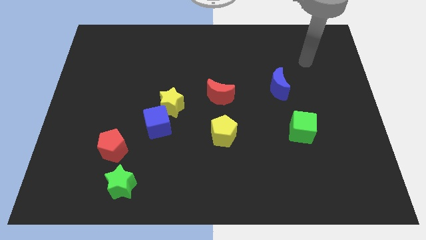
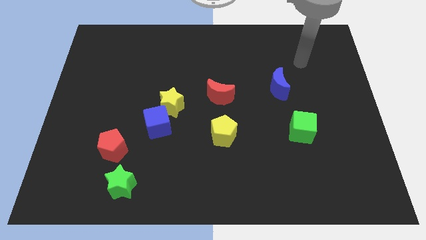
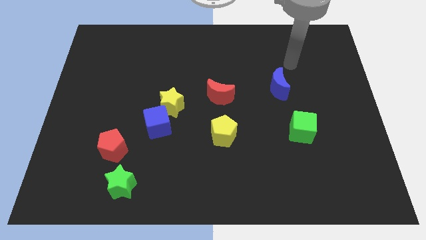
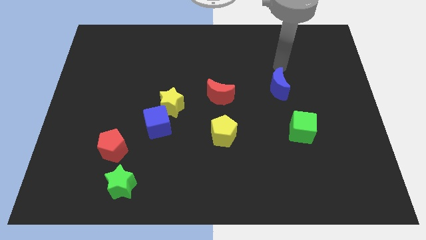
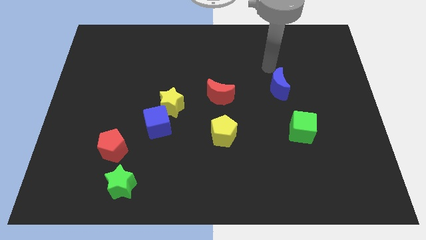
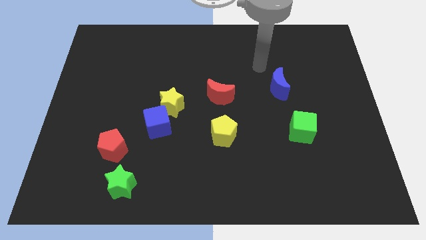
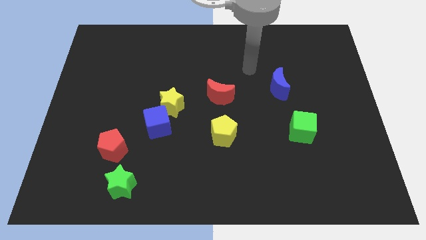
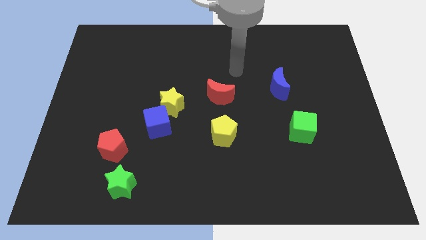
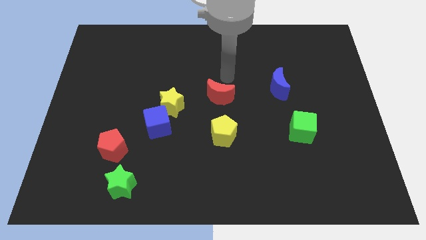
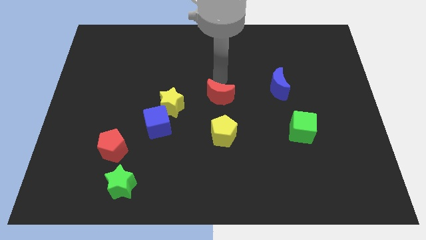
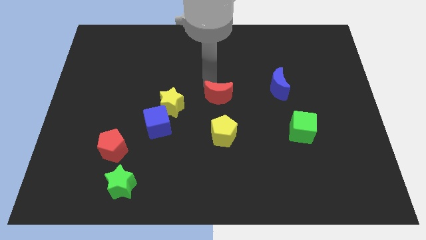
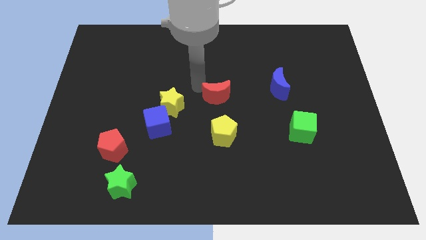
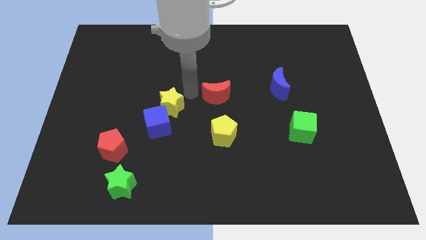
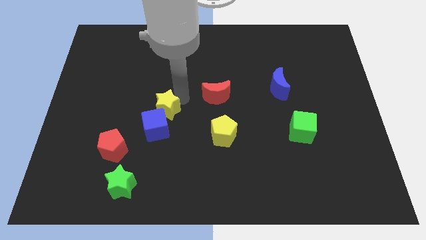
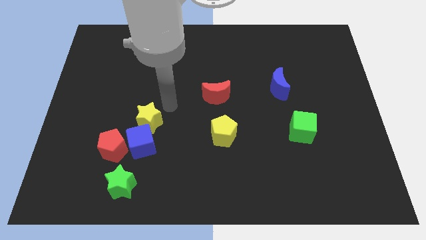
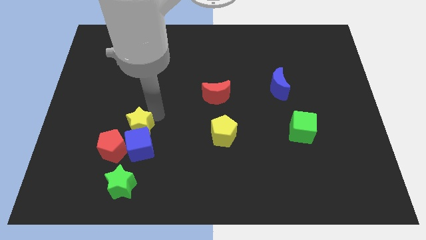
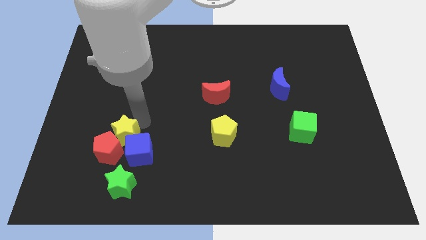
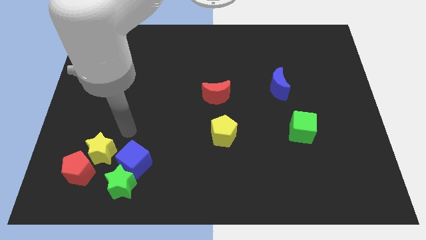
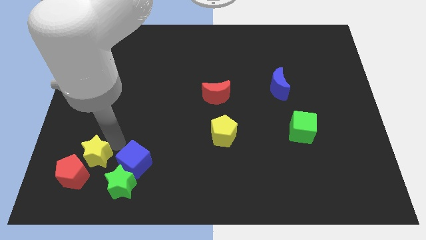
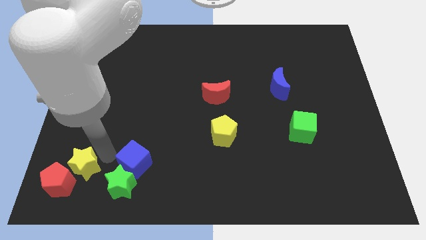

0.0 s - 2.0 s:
move the blue cube away from the yellow star

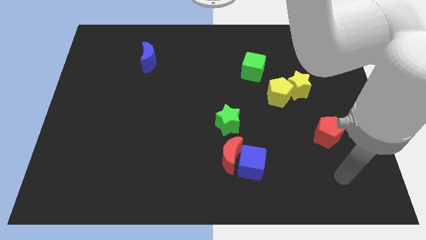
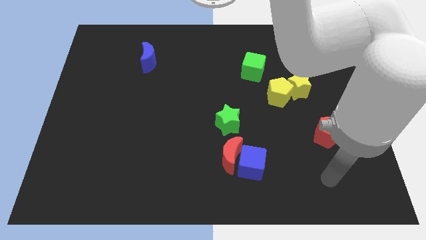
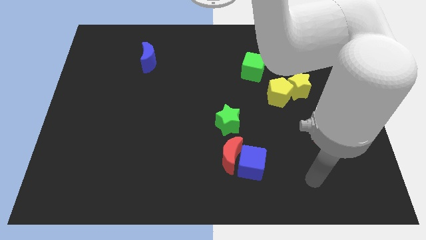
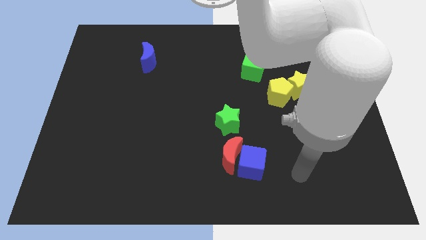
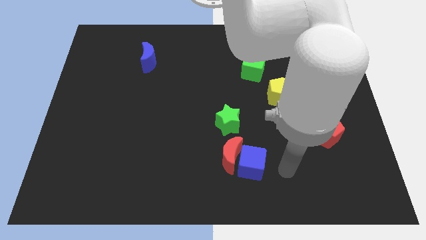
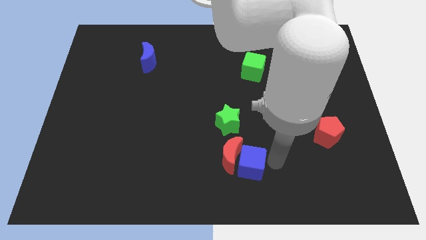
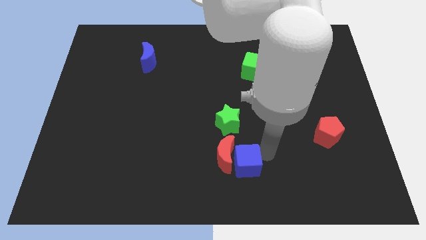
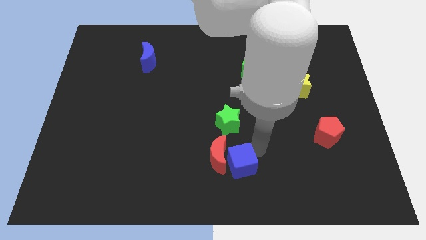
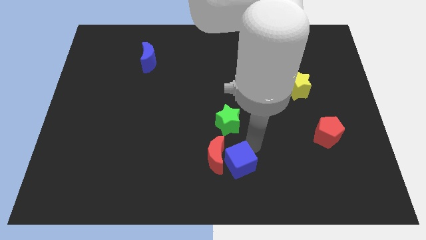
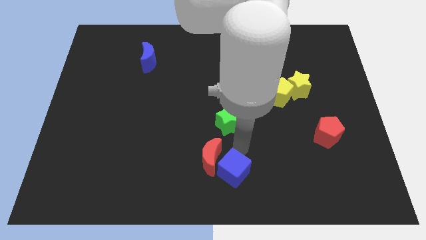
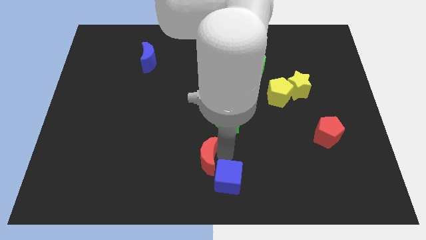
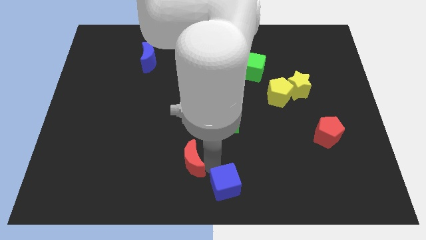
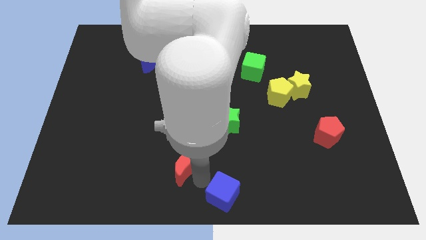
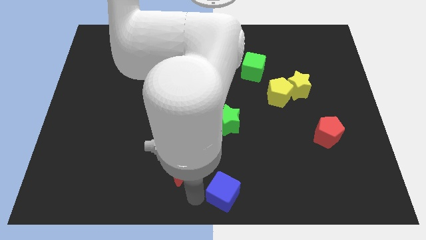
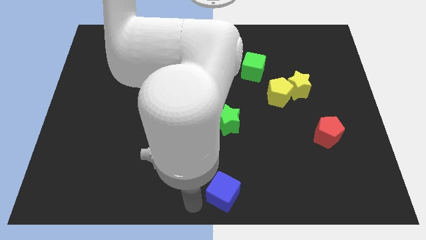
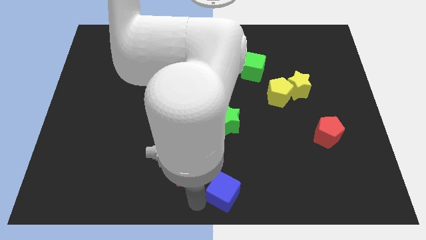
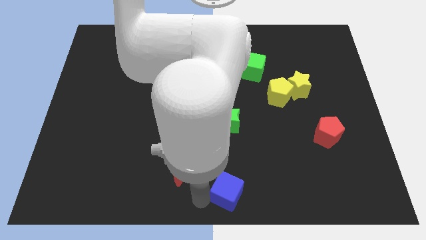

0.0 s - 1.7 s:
pull the blue cube apart from the red moon

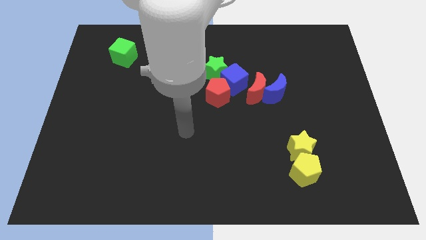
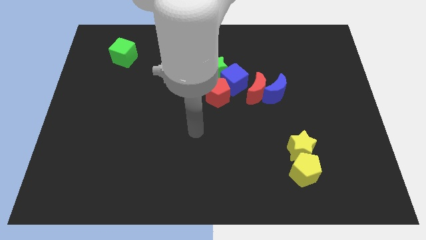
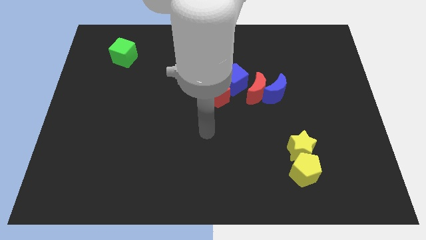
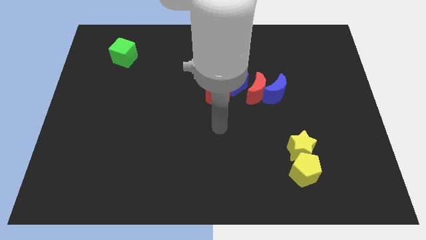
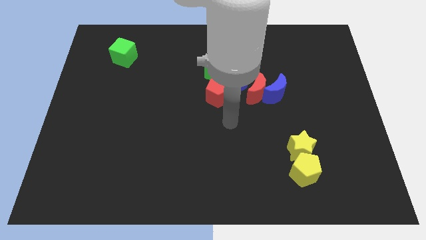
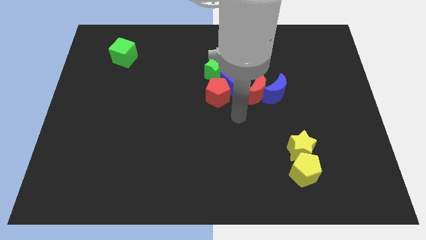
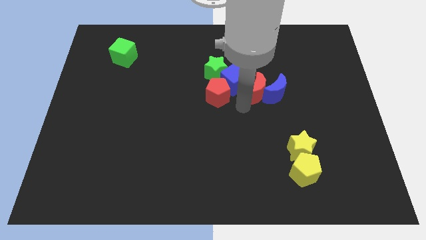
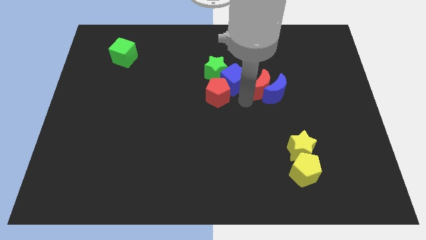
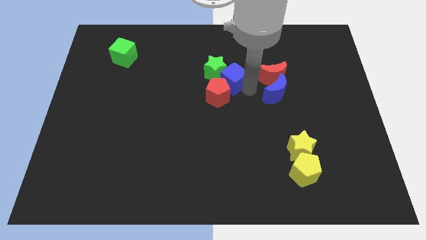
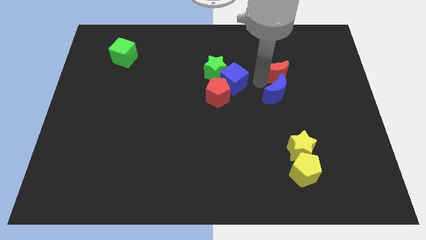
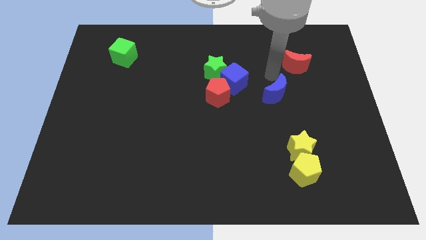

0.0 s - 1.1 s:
separate the blue moon from the red moon

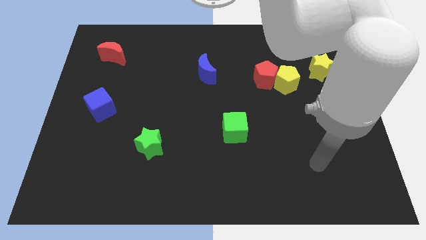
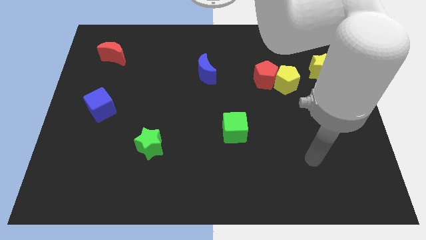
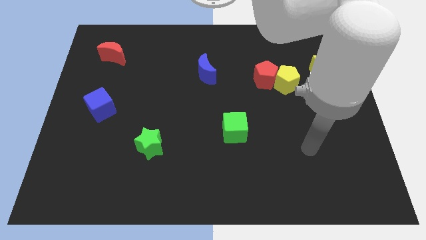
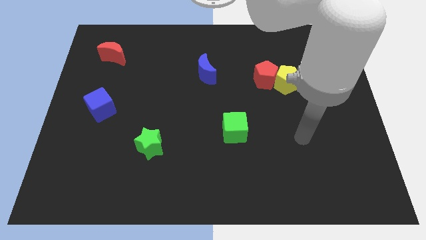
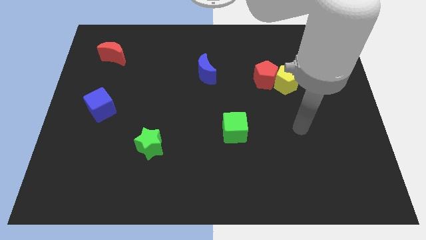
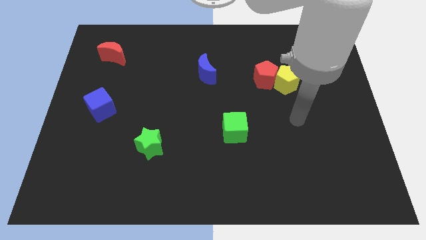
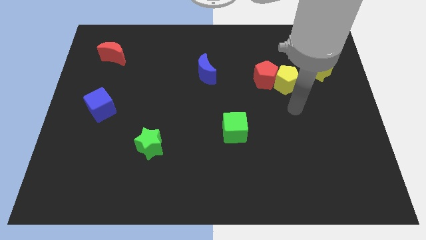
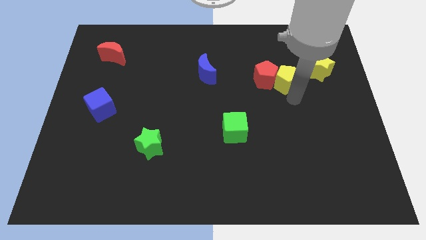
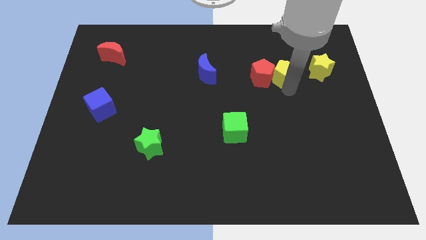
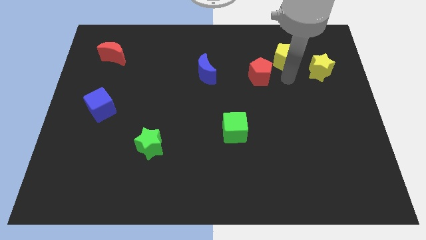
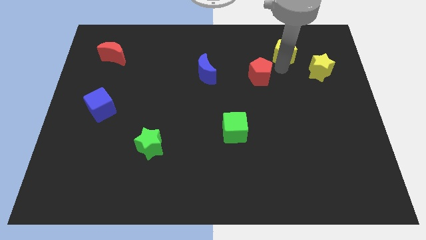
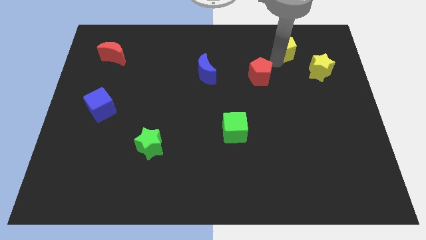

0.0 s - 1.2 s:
move the red pentagon away from the yellow pentagon

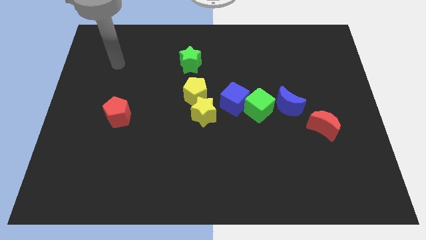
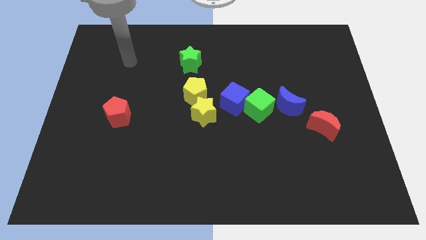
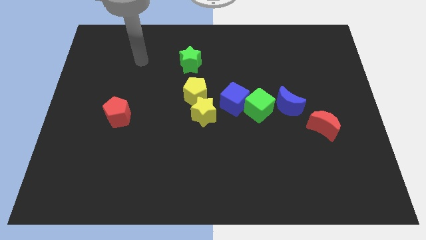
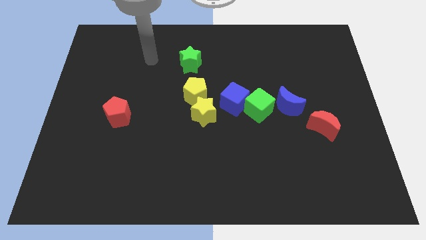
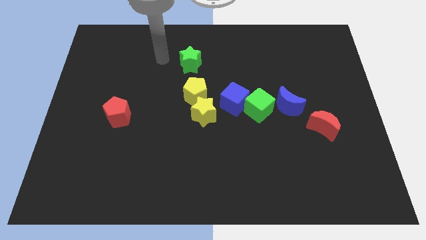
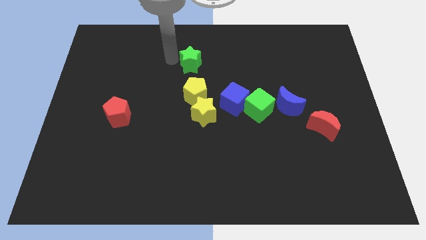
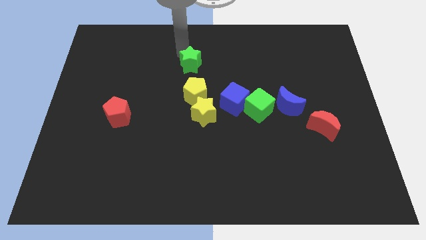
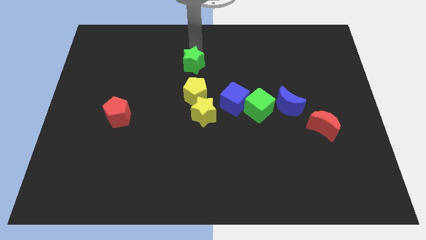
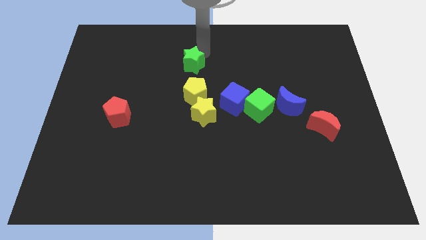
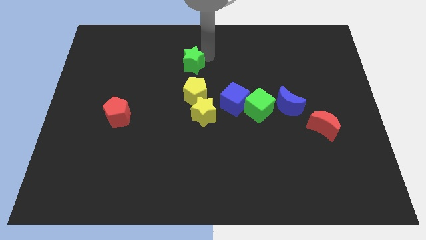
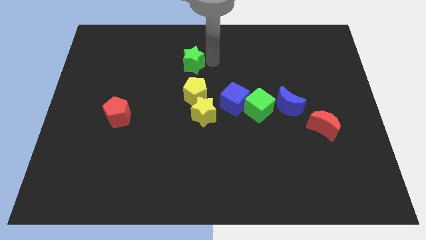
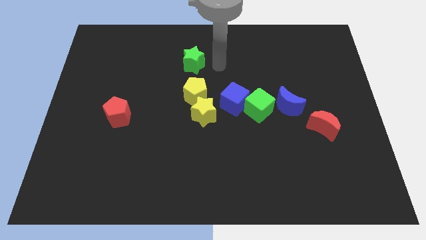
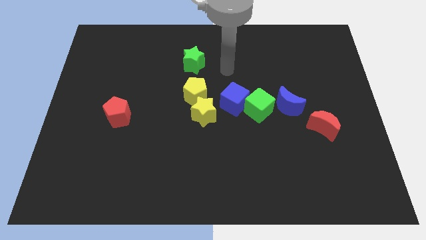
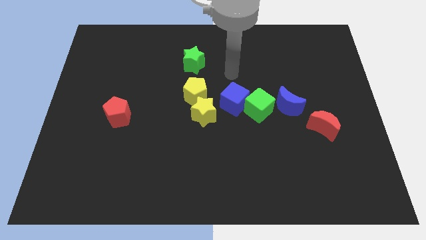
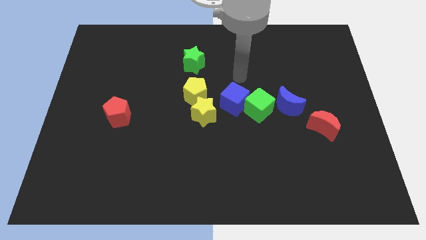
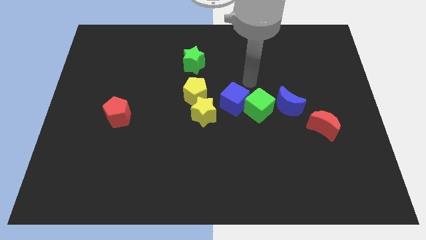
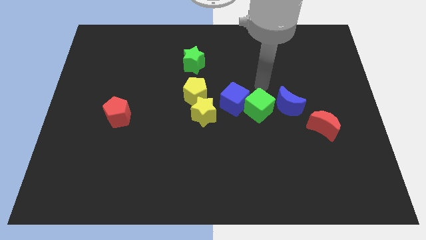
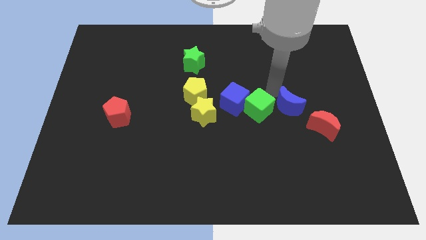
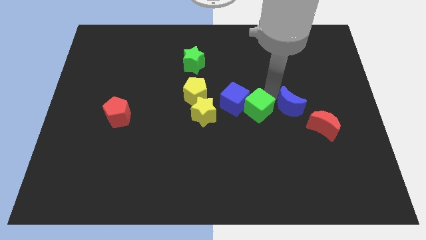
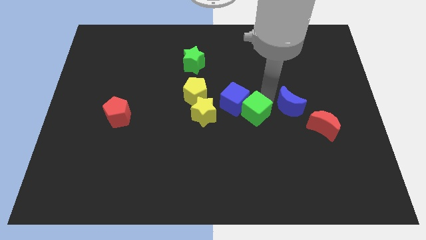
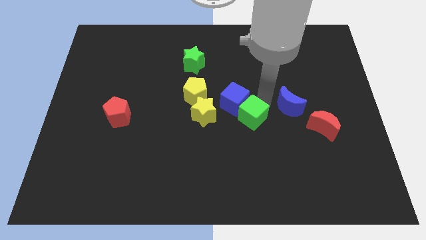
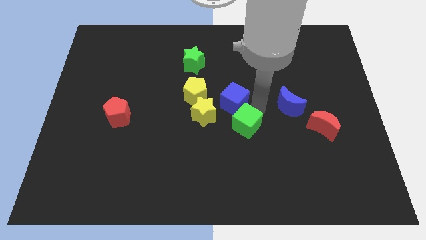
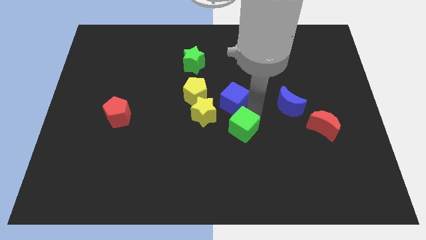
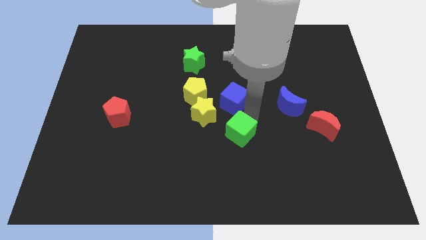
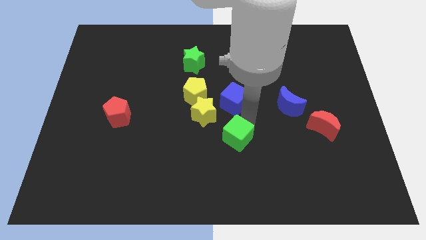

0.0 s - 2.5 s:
pull the green cube apart from the blue cube and blue moon

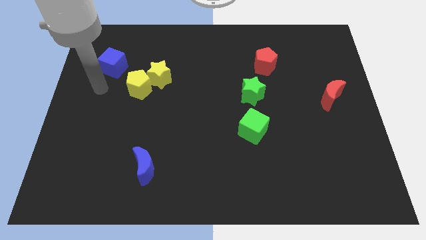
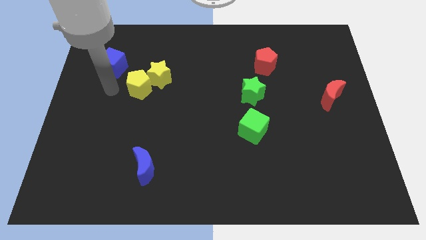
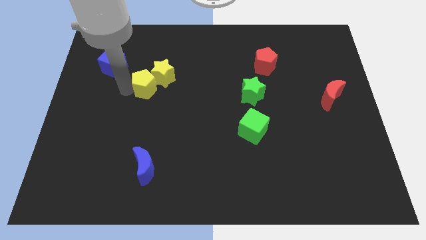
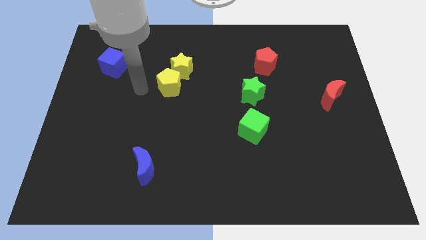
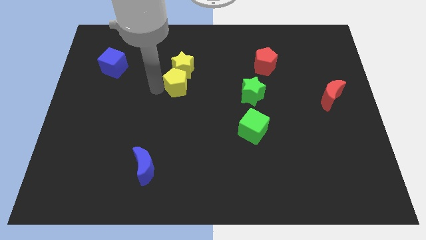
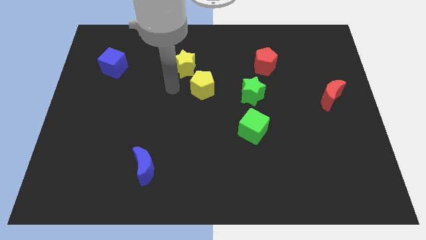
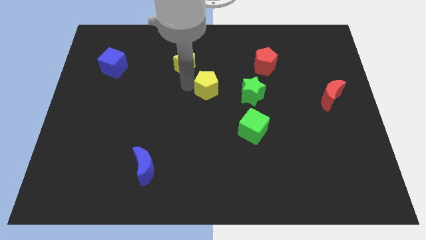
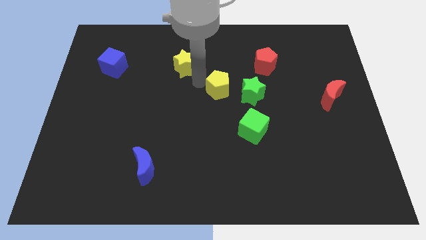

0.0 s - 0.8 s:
pull the yellow star apart from the yellow pentagon

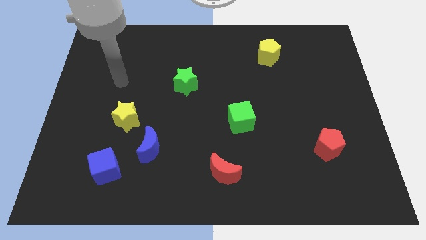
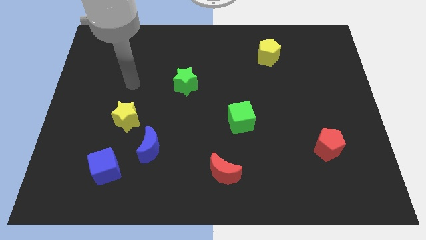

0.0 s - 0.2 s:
separate the yellow star from the blue moon
